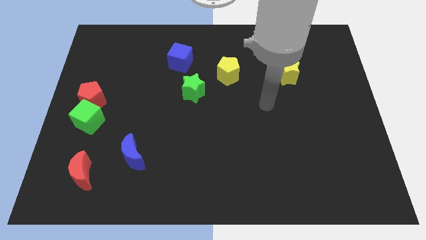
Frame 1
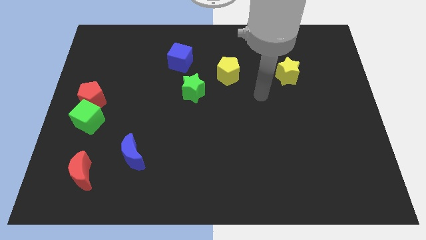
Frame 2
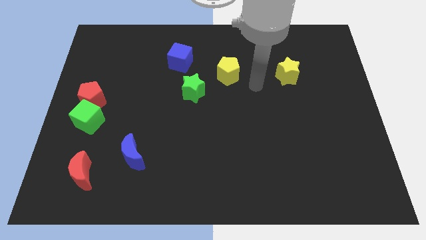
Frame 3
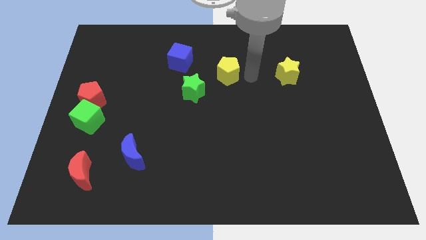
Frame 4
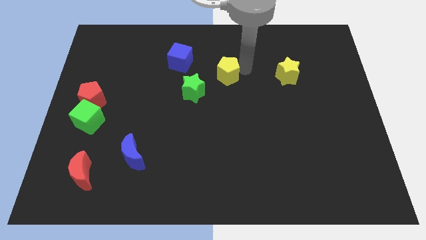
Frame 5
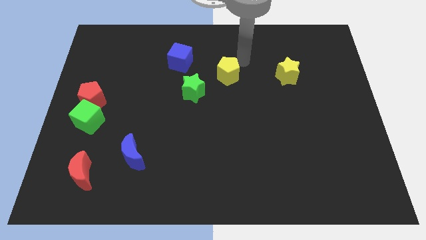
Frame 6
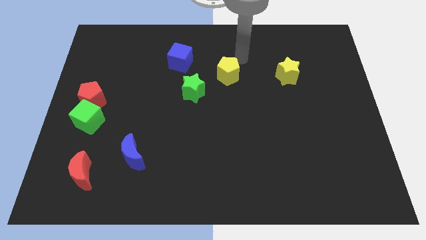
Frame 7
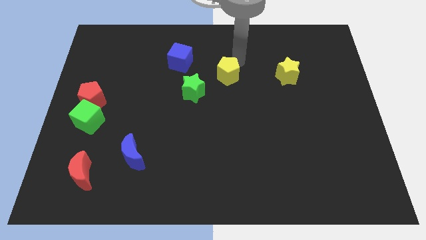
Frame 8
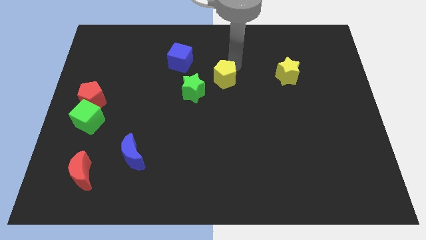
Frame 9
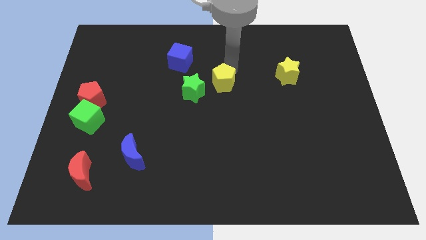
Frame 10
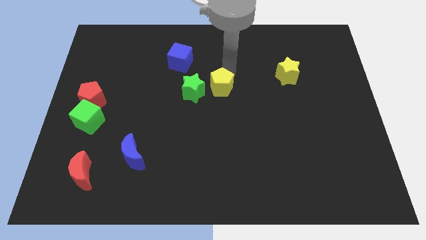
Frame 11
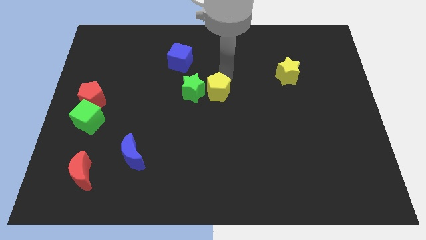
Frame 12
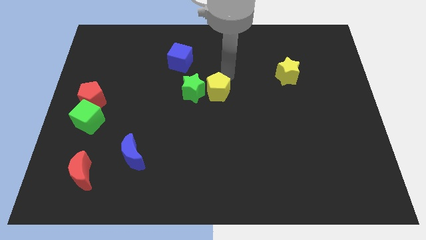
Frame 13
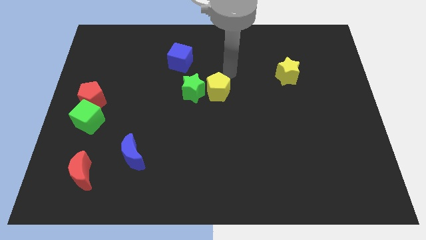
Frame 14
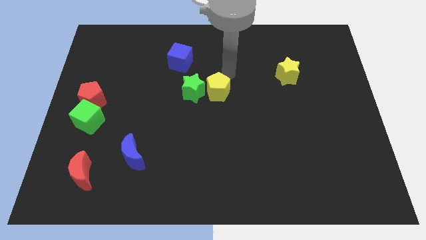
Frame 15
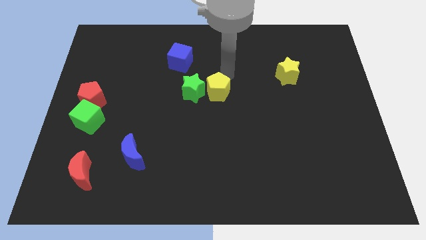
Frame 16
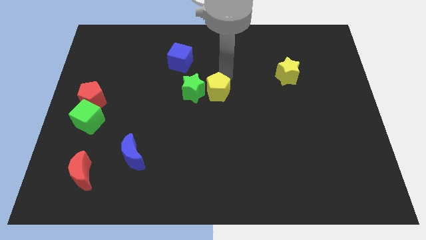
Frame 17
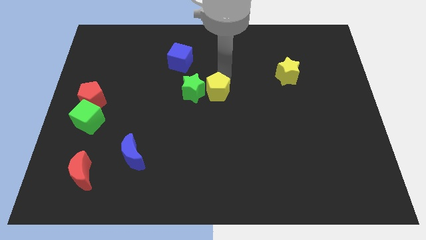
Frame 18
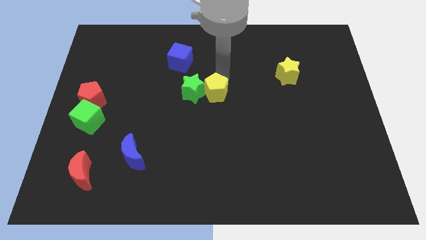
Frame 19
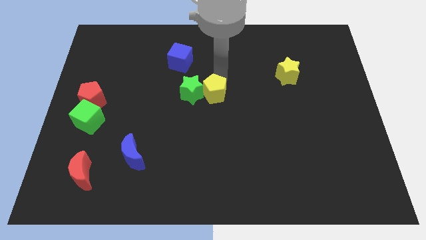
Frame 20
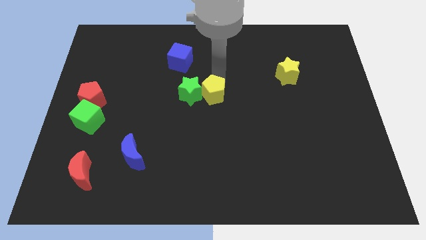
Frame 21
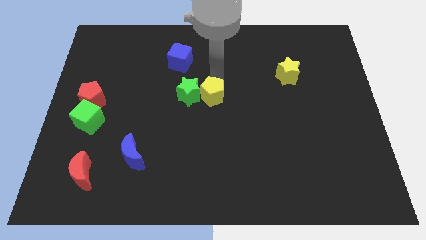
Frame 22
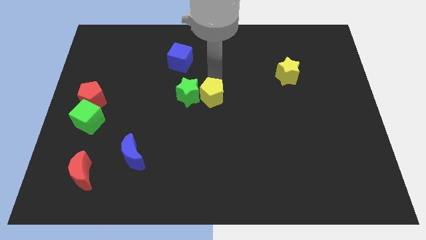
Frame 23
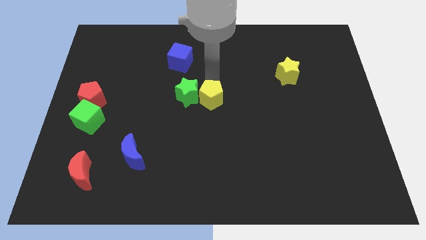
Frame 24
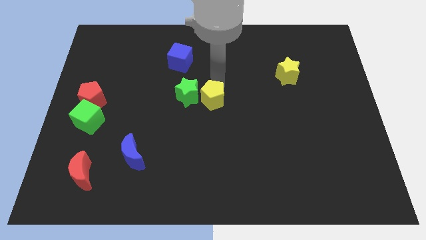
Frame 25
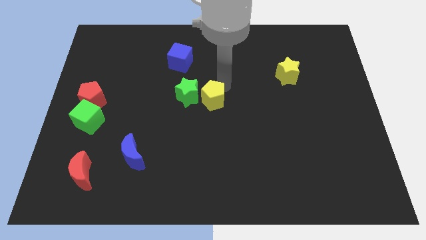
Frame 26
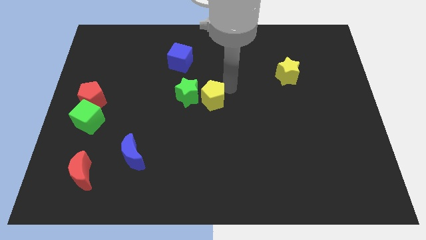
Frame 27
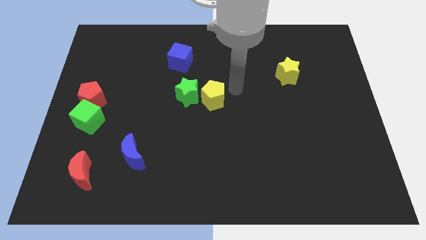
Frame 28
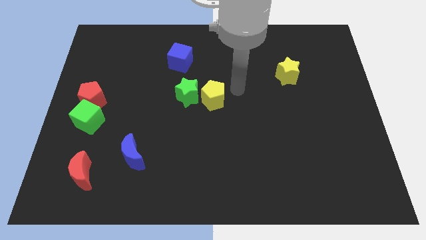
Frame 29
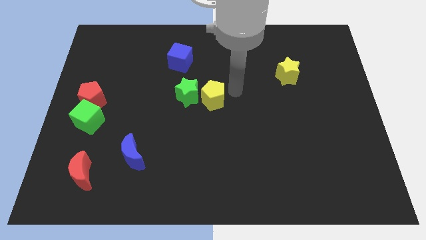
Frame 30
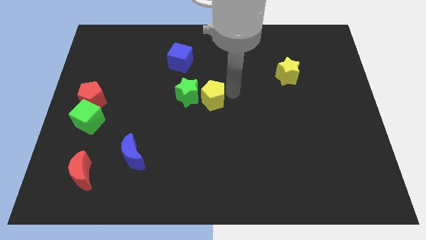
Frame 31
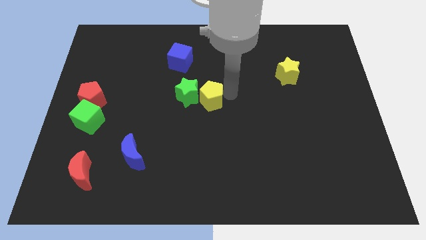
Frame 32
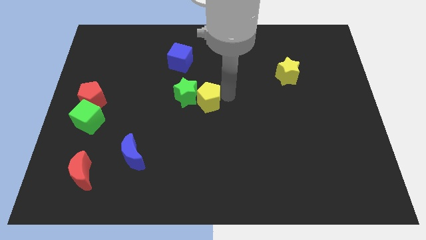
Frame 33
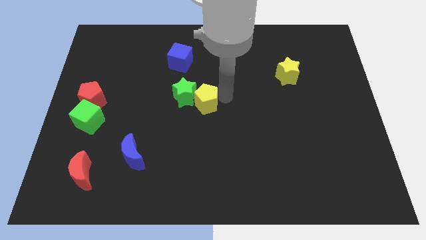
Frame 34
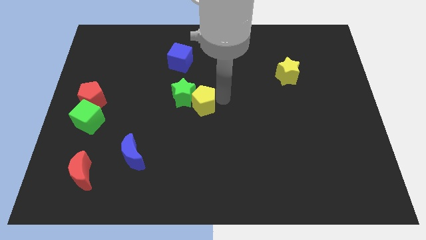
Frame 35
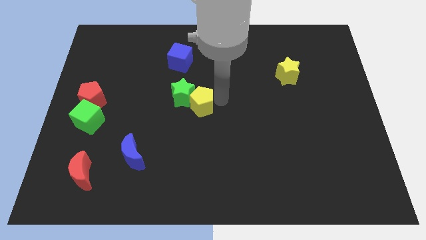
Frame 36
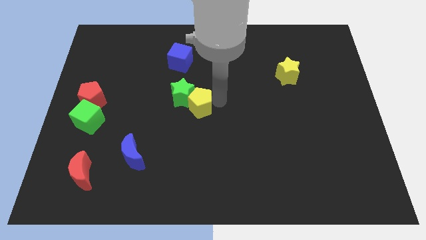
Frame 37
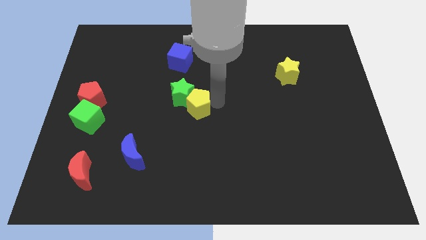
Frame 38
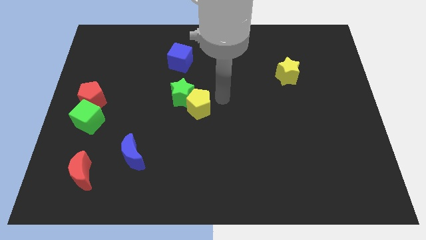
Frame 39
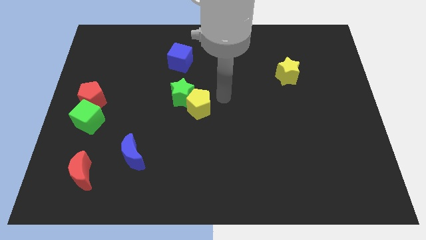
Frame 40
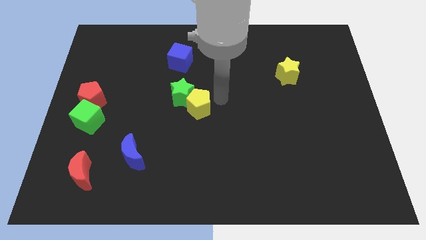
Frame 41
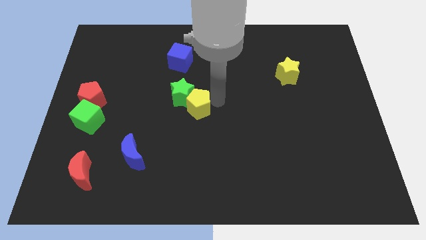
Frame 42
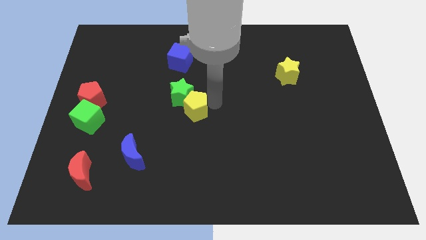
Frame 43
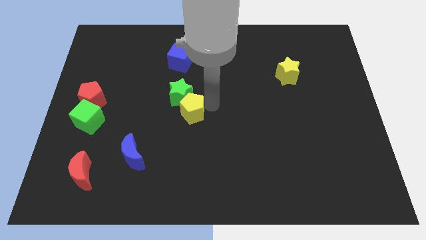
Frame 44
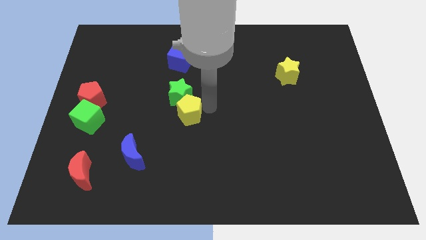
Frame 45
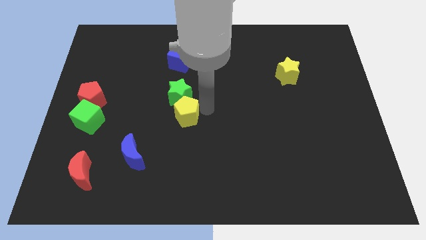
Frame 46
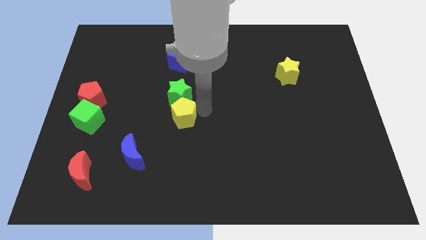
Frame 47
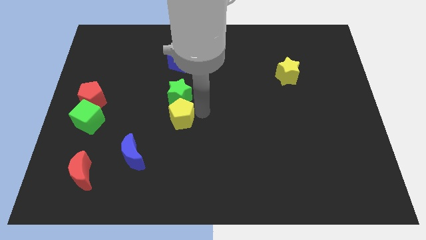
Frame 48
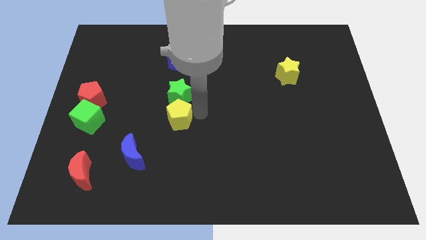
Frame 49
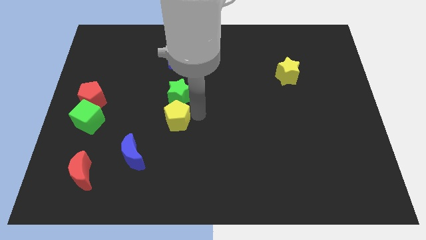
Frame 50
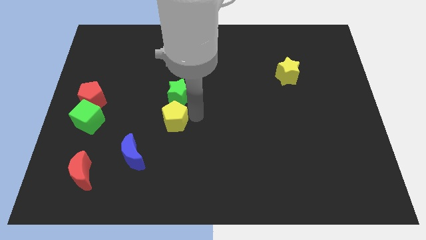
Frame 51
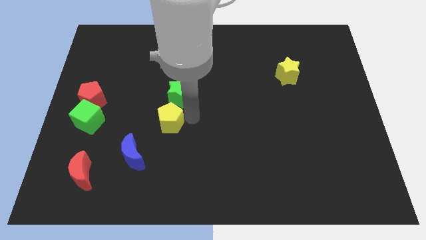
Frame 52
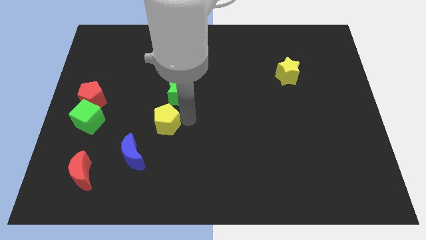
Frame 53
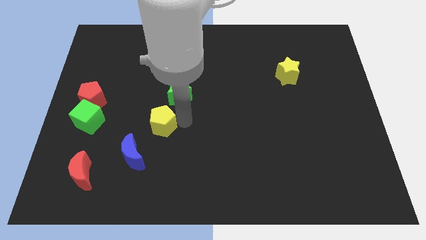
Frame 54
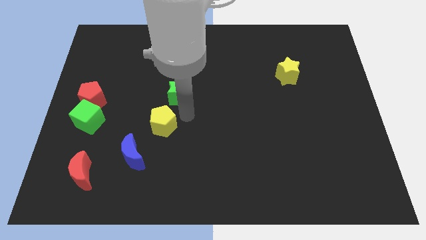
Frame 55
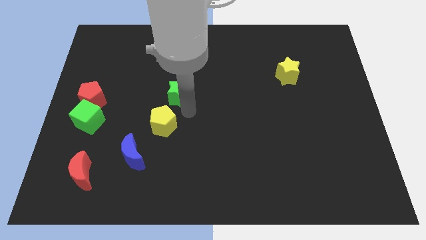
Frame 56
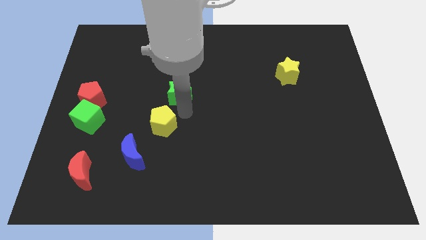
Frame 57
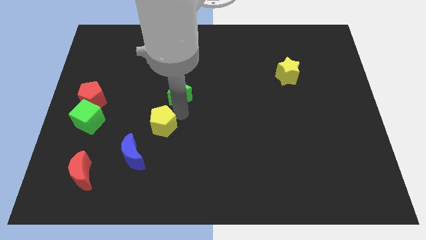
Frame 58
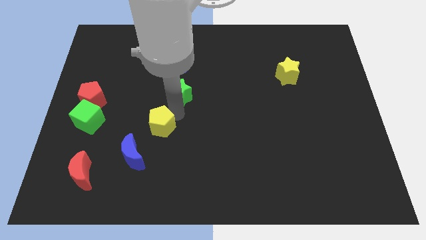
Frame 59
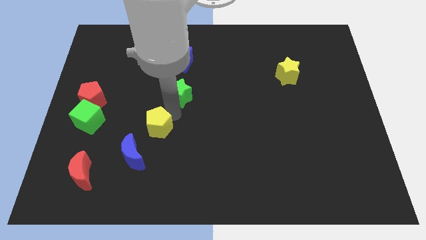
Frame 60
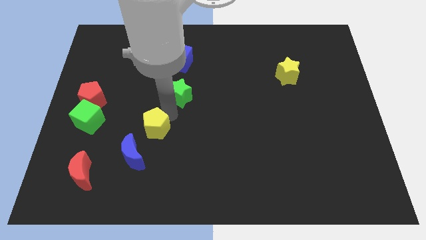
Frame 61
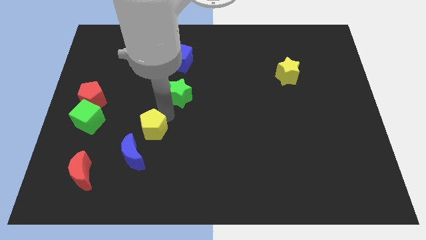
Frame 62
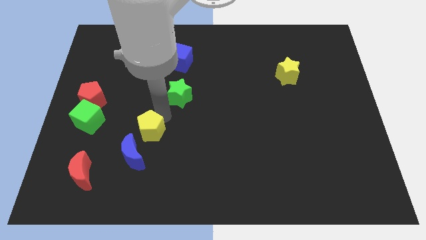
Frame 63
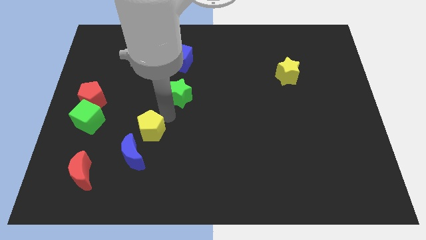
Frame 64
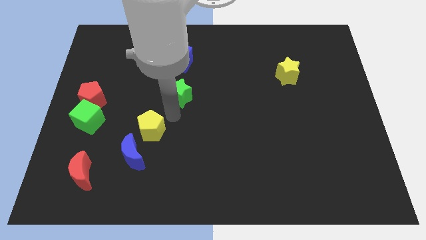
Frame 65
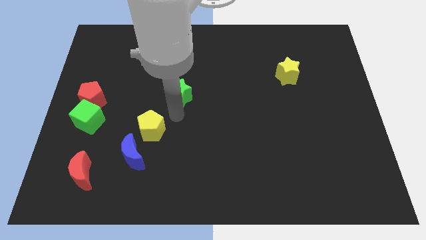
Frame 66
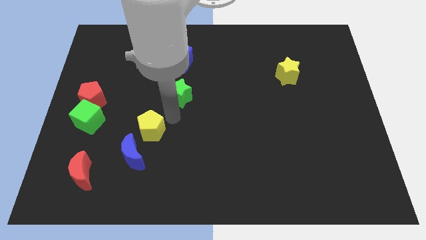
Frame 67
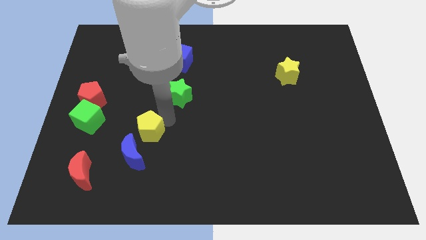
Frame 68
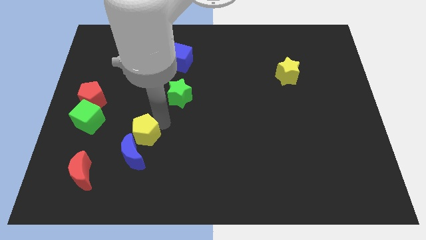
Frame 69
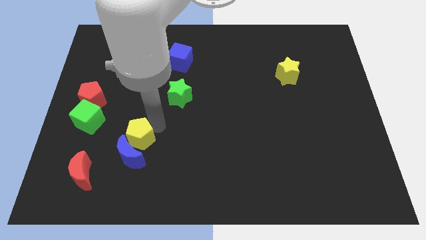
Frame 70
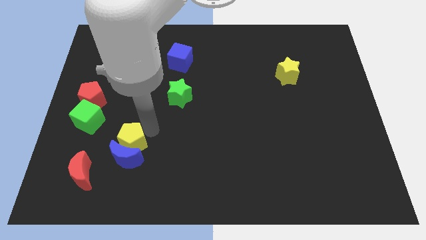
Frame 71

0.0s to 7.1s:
slide the yellow pentagon diagonally up and to the right of the red moon
